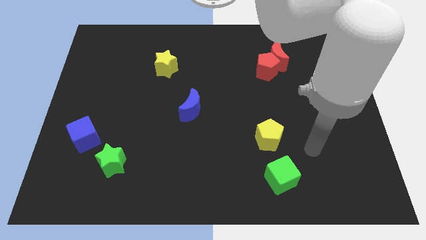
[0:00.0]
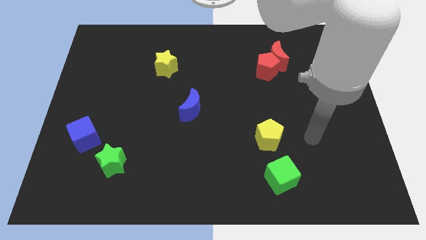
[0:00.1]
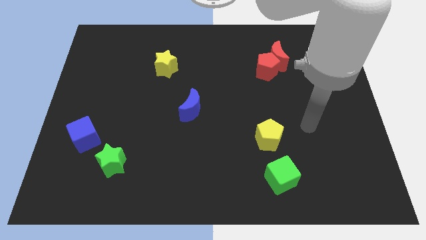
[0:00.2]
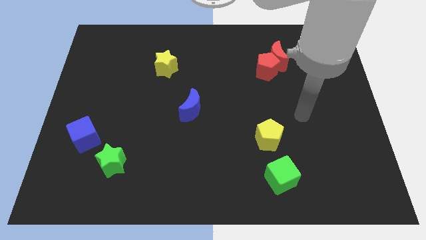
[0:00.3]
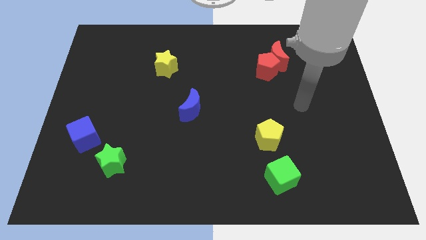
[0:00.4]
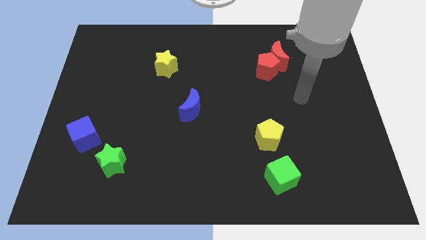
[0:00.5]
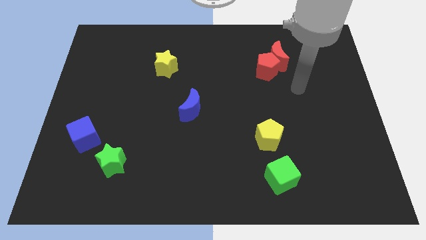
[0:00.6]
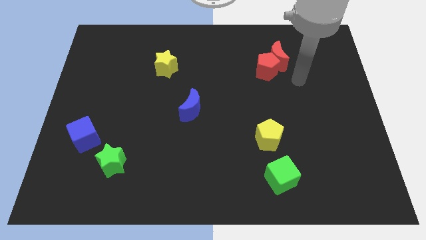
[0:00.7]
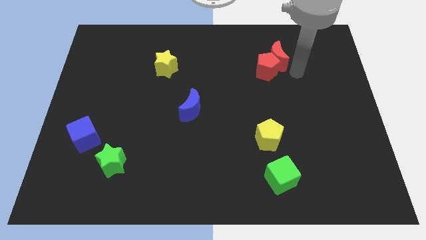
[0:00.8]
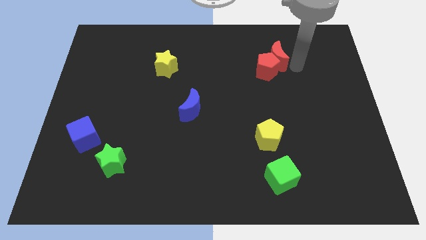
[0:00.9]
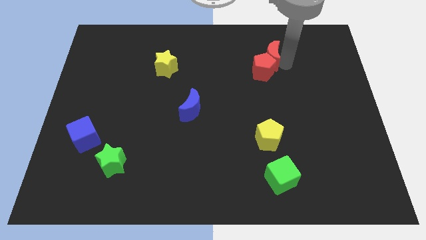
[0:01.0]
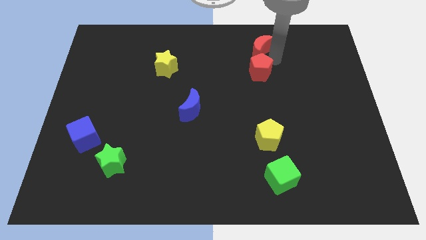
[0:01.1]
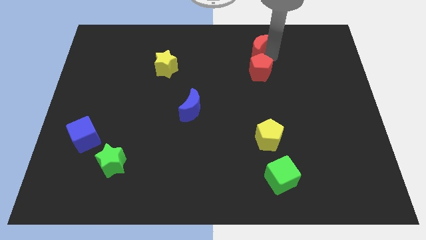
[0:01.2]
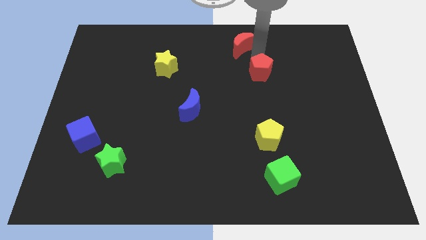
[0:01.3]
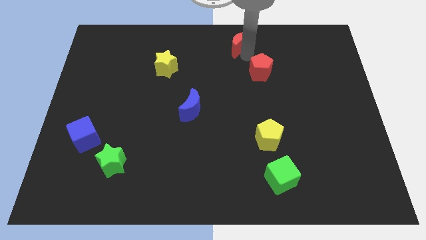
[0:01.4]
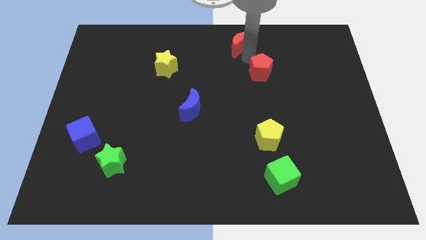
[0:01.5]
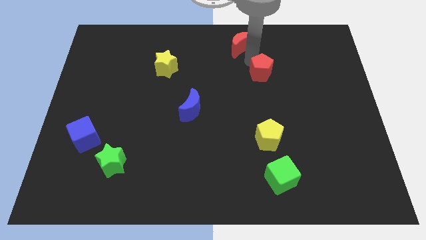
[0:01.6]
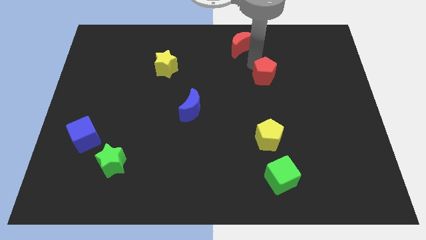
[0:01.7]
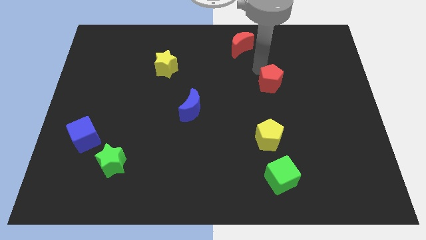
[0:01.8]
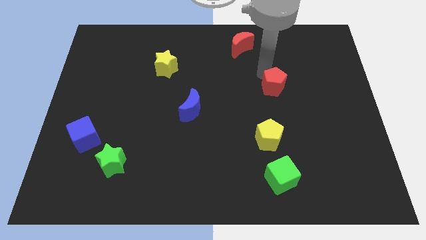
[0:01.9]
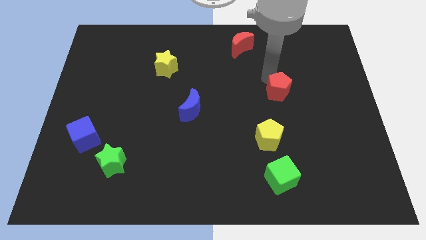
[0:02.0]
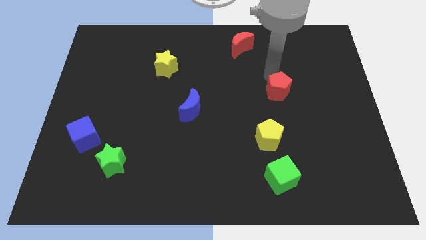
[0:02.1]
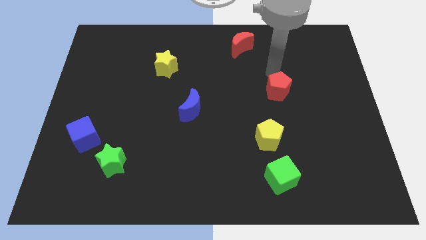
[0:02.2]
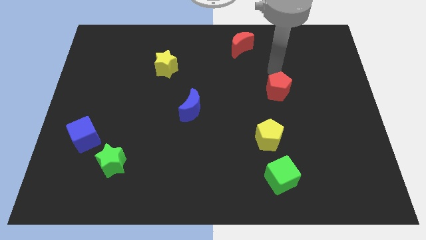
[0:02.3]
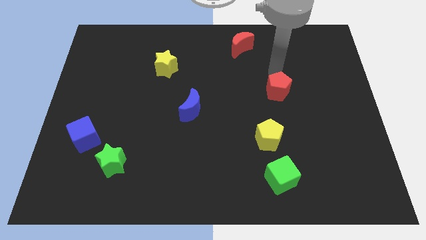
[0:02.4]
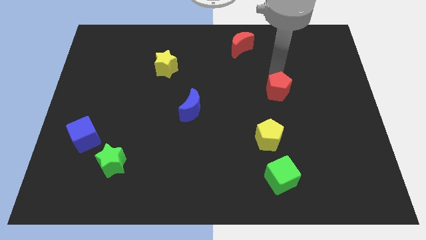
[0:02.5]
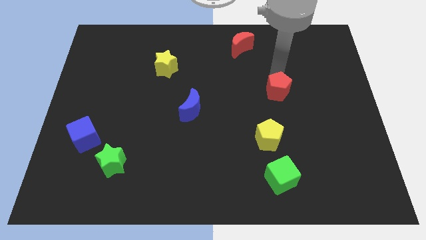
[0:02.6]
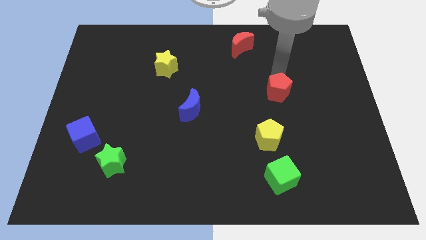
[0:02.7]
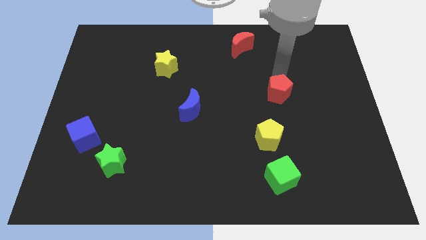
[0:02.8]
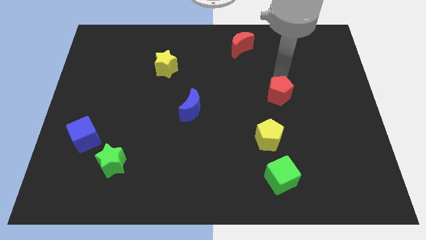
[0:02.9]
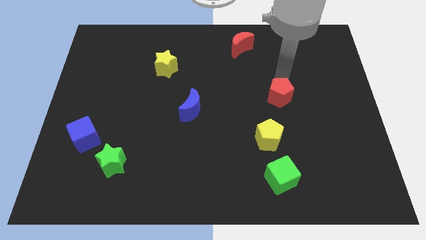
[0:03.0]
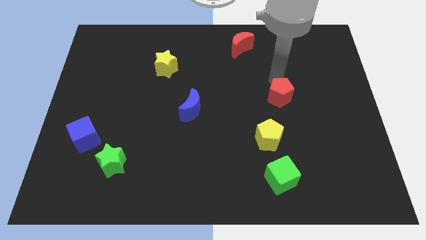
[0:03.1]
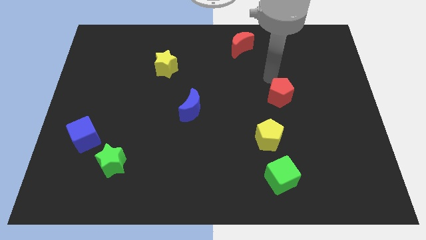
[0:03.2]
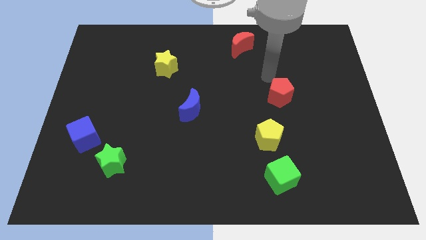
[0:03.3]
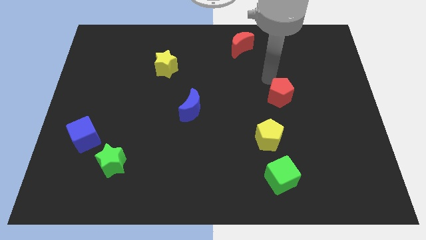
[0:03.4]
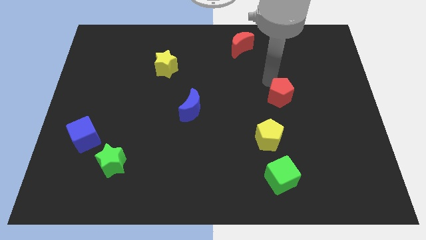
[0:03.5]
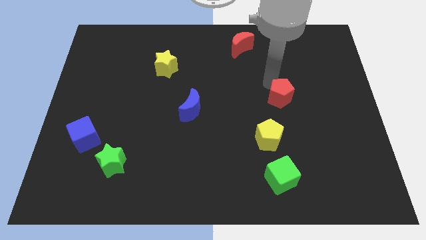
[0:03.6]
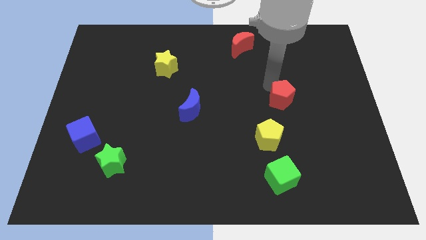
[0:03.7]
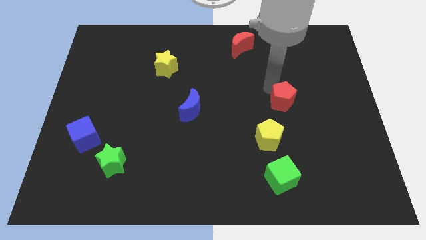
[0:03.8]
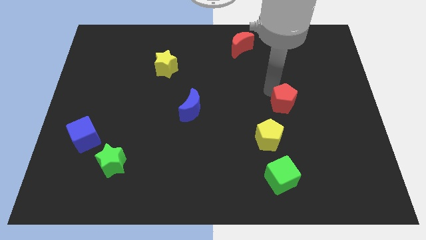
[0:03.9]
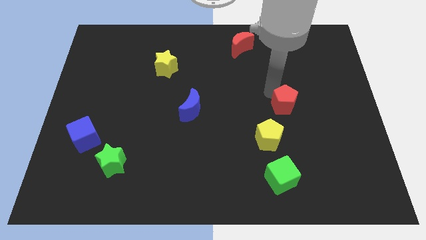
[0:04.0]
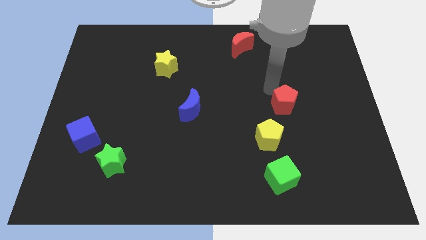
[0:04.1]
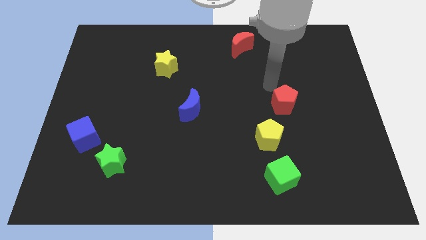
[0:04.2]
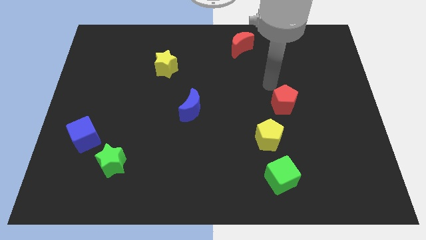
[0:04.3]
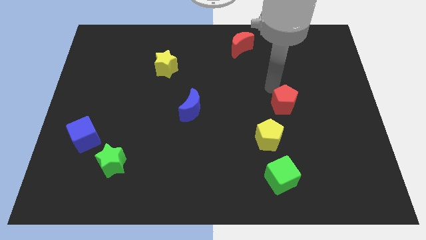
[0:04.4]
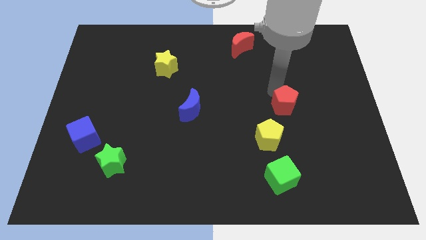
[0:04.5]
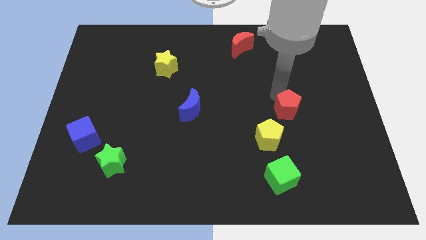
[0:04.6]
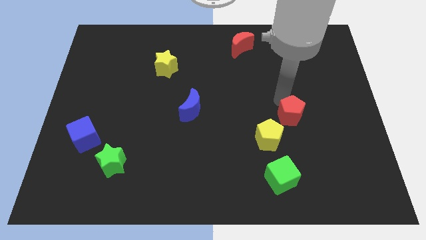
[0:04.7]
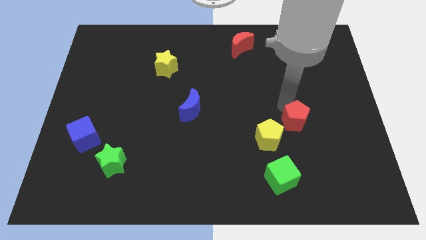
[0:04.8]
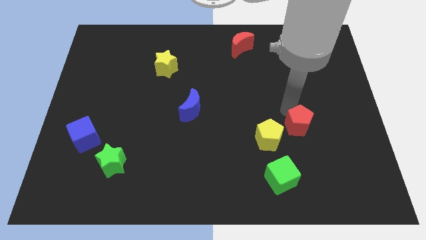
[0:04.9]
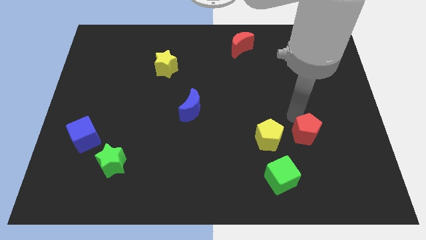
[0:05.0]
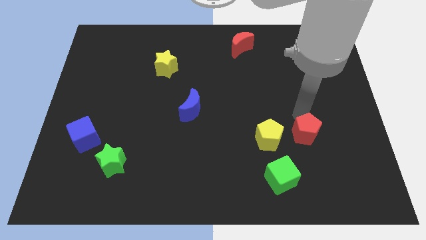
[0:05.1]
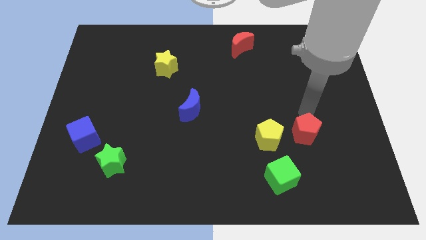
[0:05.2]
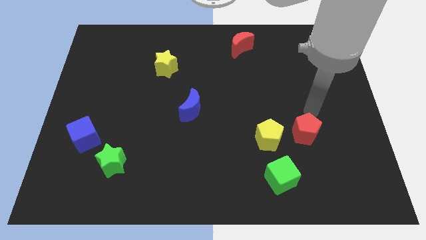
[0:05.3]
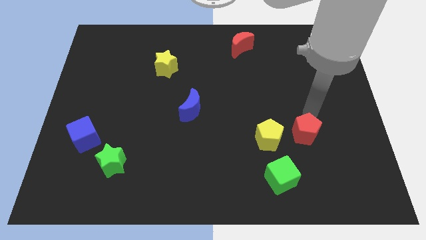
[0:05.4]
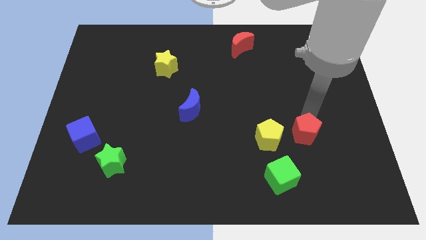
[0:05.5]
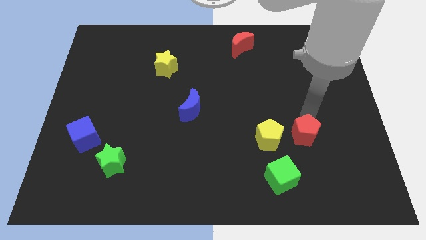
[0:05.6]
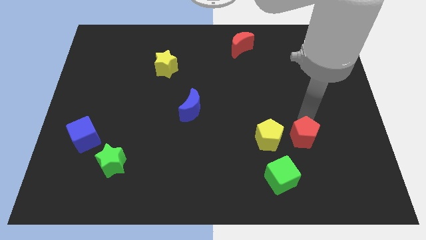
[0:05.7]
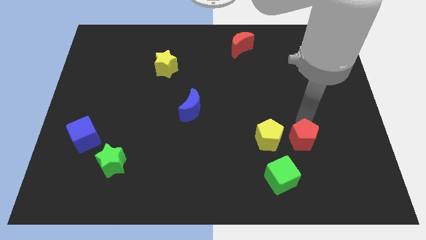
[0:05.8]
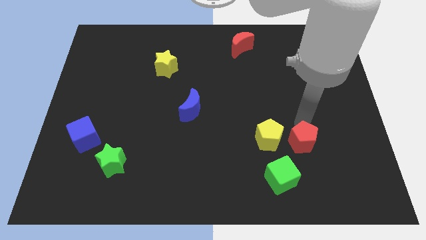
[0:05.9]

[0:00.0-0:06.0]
put the red pentagon to the bottom right of the yellow pentagon

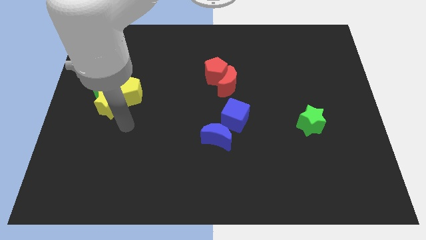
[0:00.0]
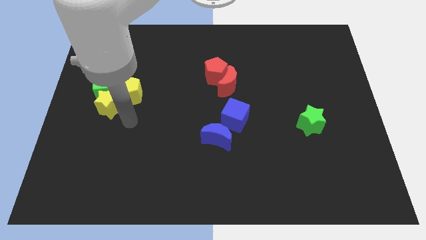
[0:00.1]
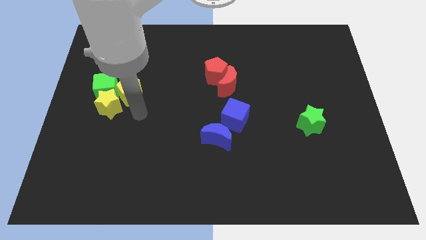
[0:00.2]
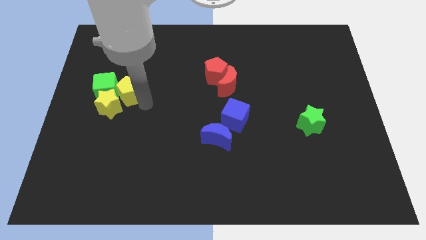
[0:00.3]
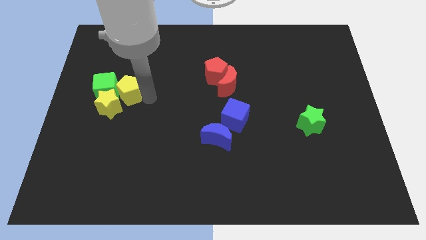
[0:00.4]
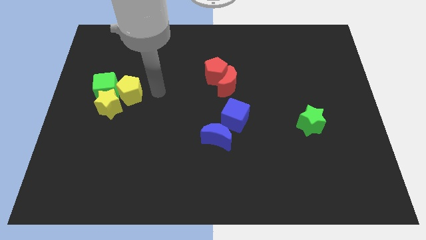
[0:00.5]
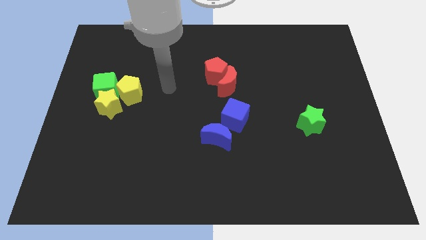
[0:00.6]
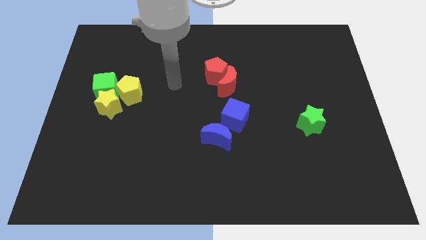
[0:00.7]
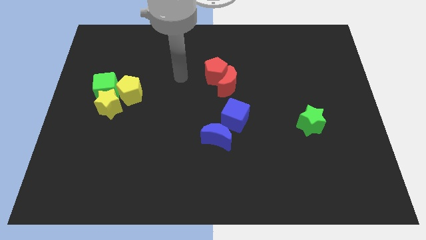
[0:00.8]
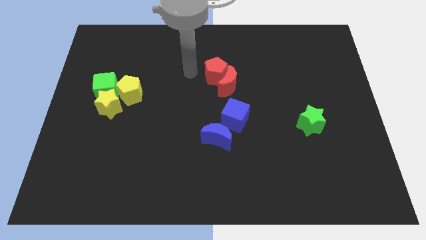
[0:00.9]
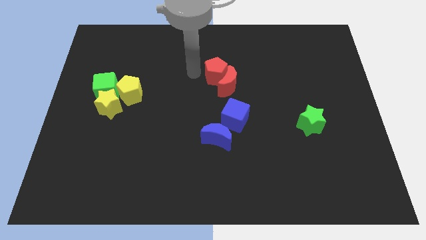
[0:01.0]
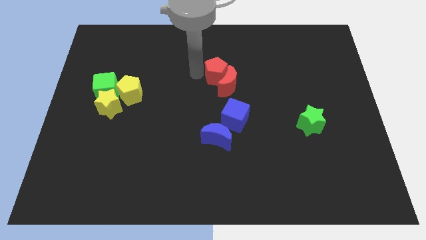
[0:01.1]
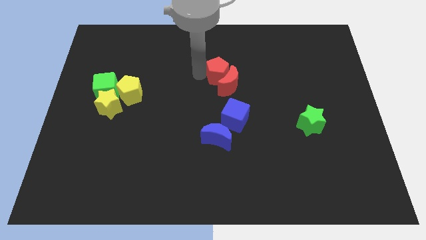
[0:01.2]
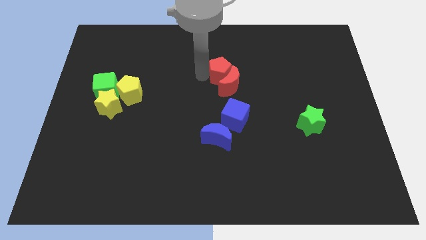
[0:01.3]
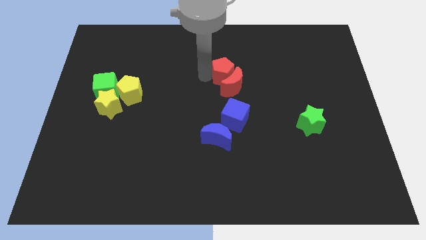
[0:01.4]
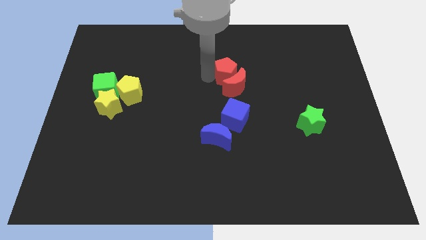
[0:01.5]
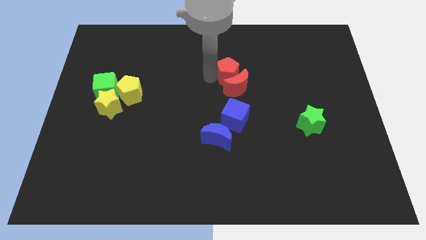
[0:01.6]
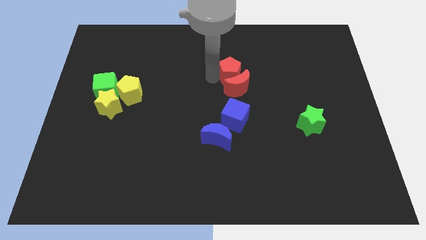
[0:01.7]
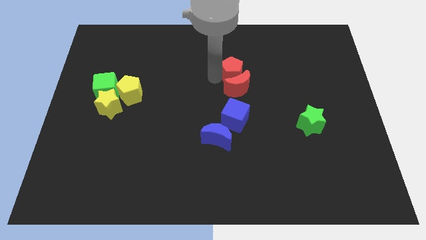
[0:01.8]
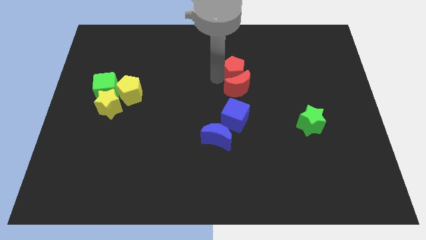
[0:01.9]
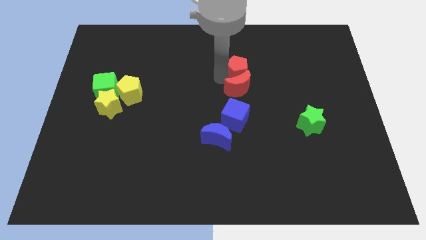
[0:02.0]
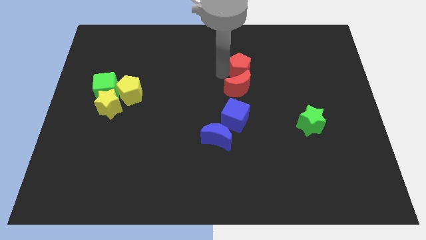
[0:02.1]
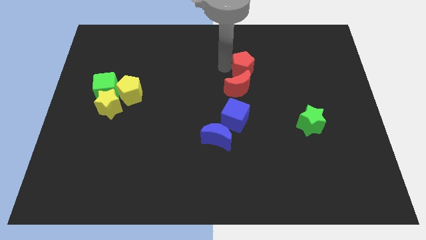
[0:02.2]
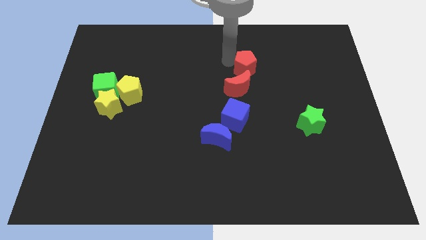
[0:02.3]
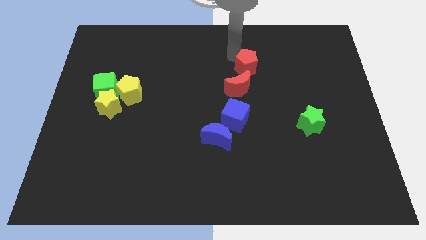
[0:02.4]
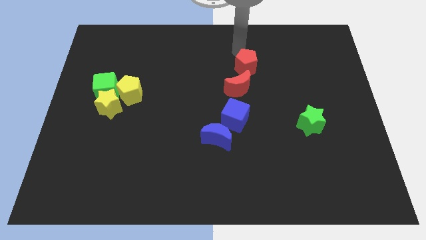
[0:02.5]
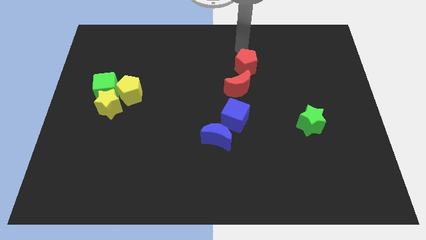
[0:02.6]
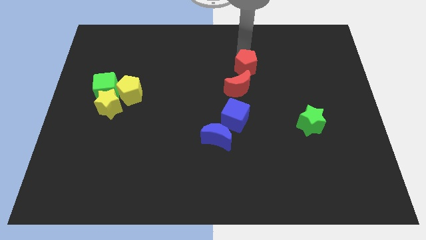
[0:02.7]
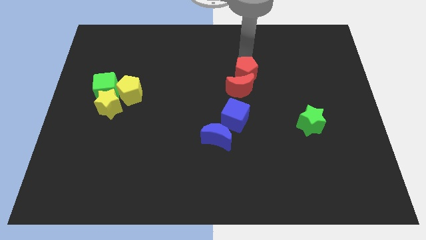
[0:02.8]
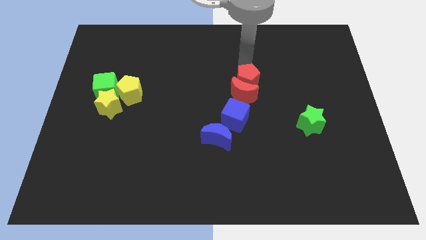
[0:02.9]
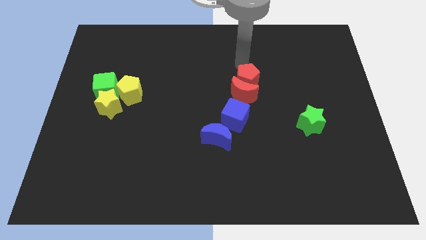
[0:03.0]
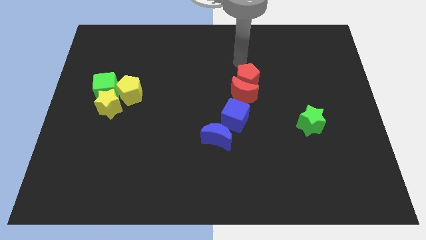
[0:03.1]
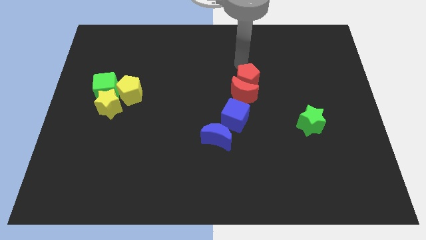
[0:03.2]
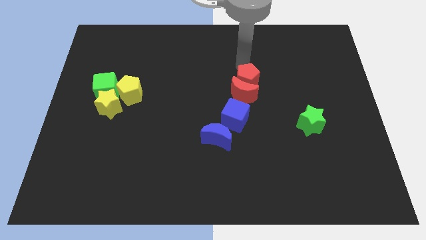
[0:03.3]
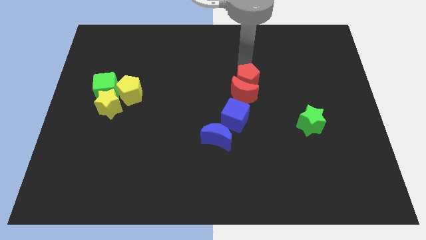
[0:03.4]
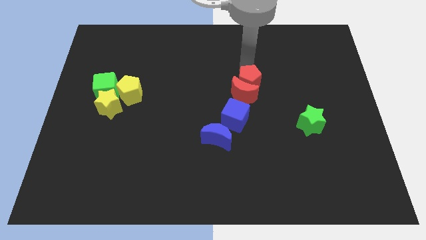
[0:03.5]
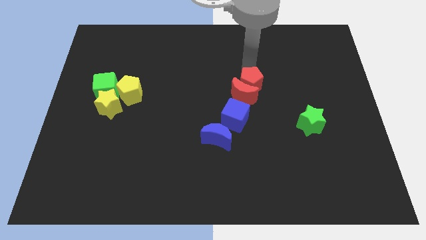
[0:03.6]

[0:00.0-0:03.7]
push the red pentagon to the top right side of the blue cube
